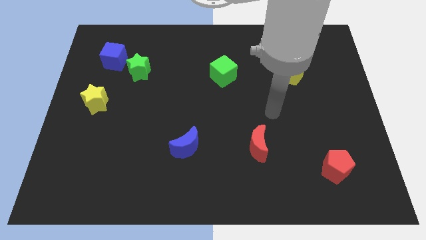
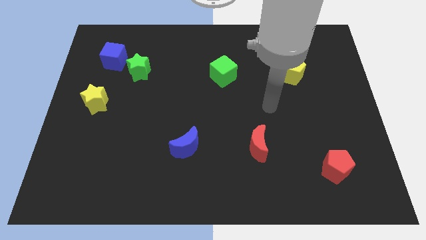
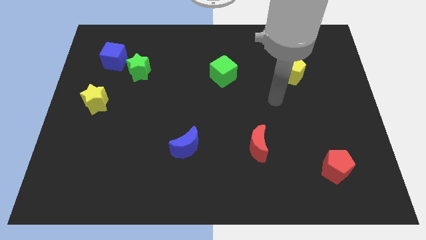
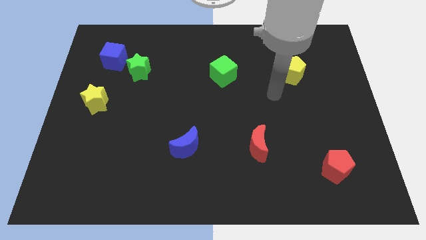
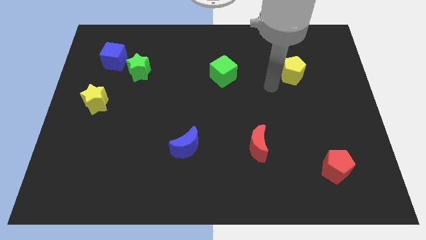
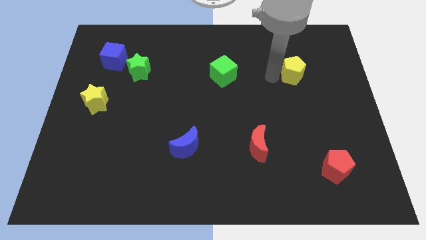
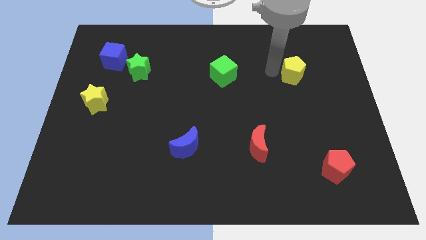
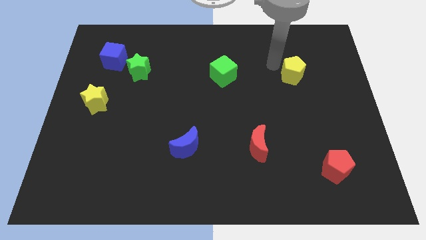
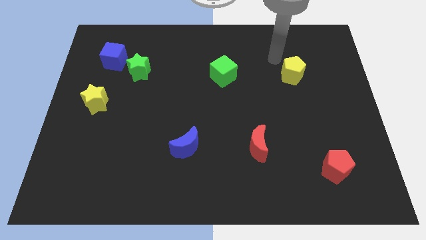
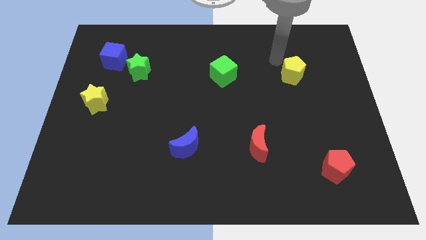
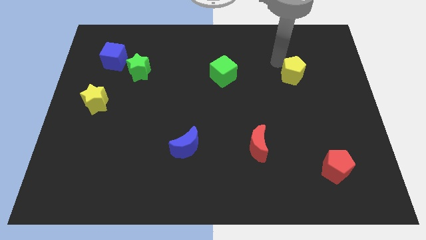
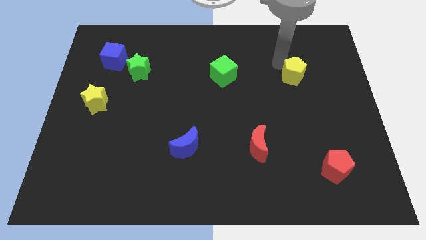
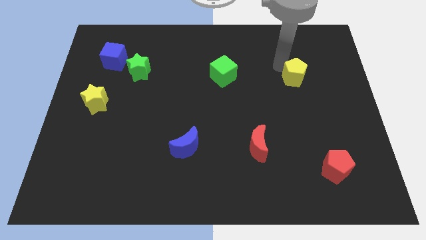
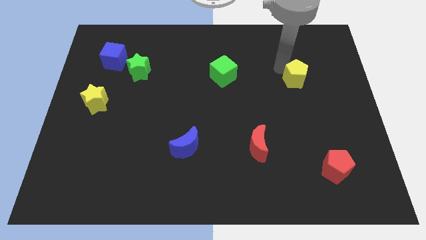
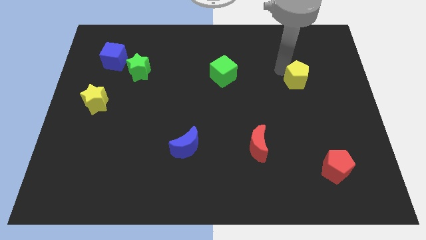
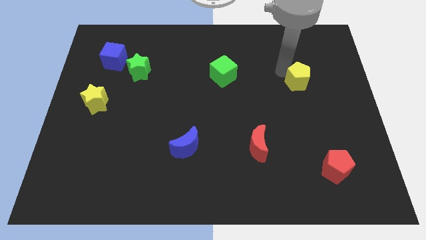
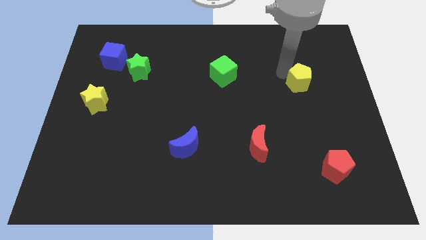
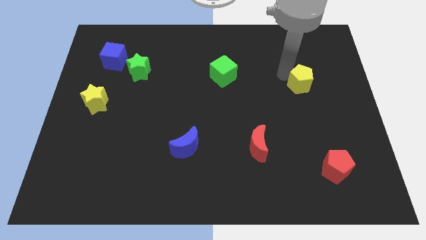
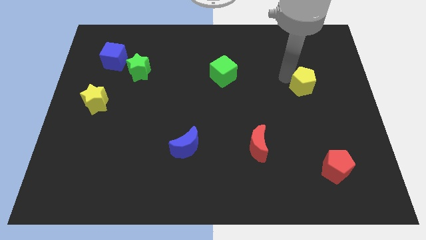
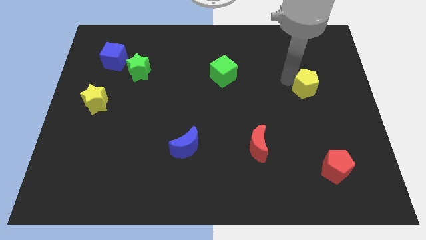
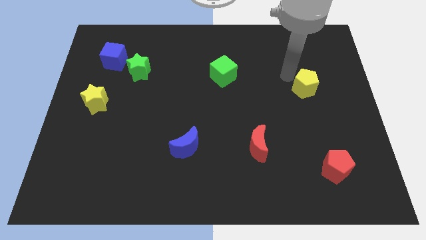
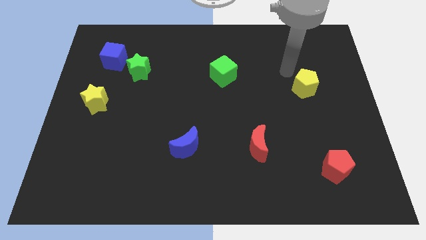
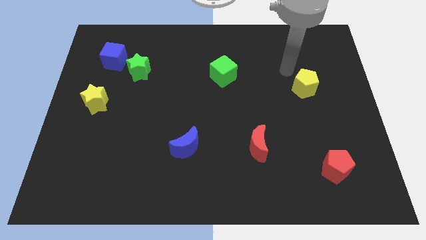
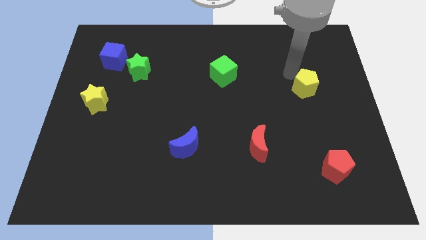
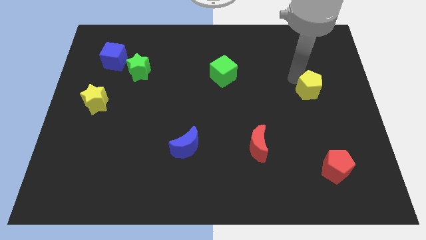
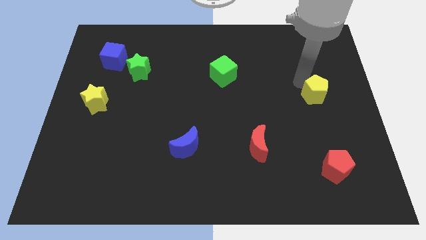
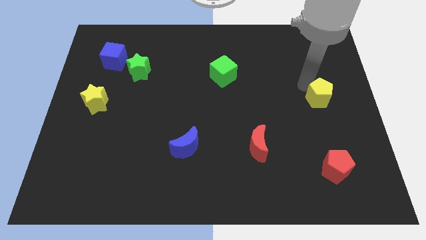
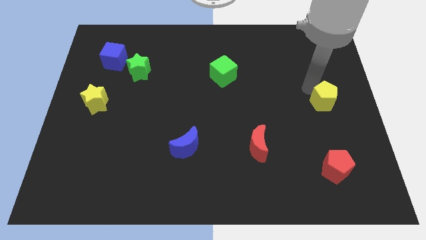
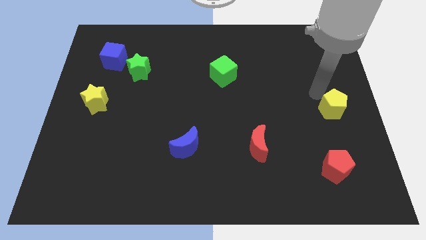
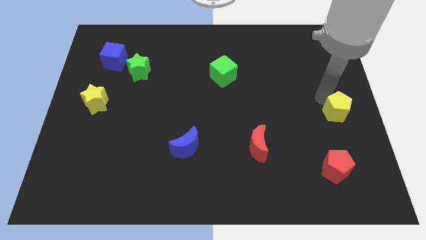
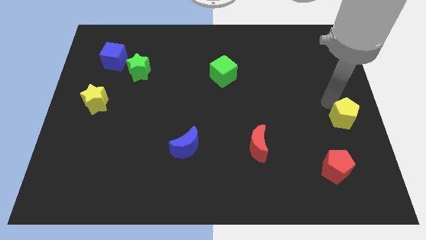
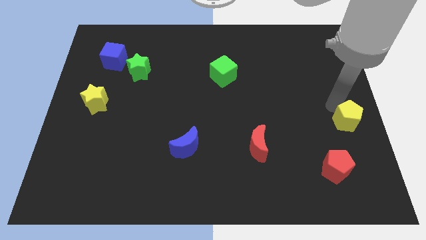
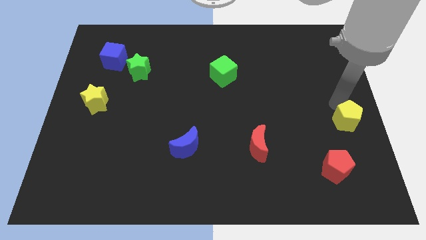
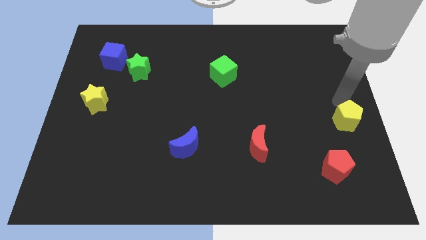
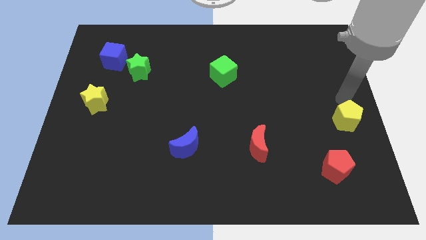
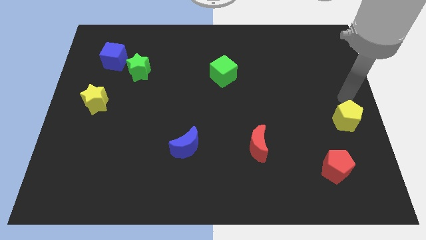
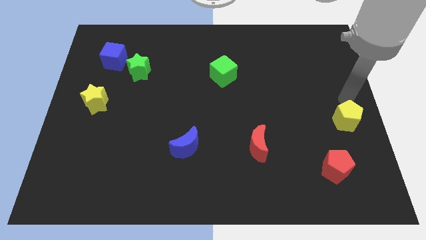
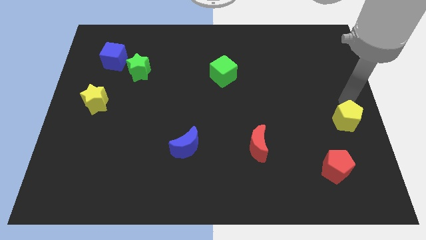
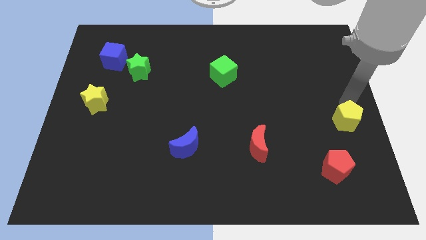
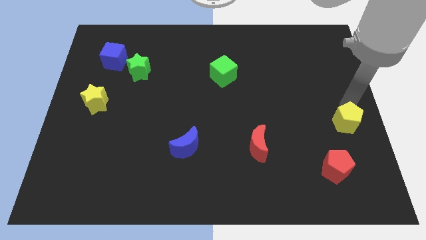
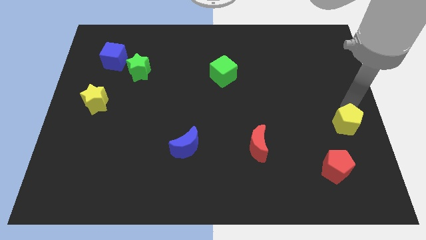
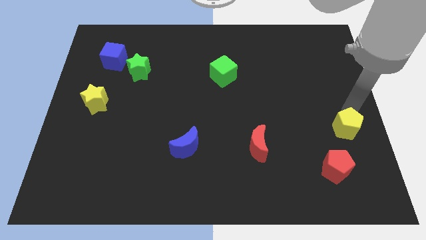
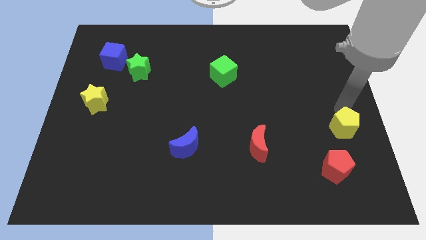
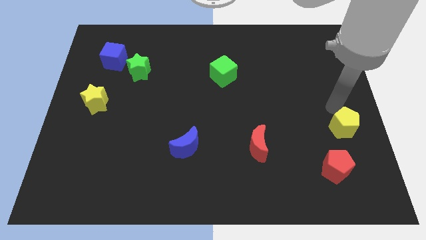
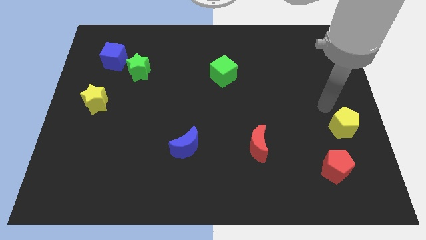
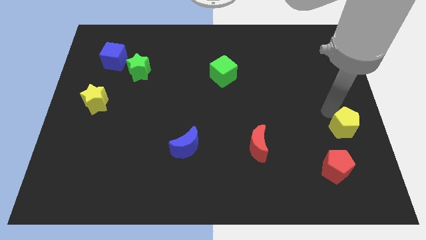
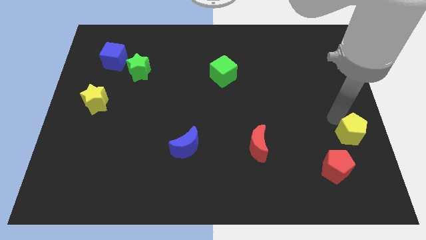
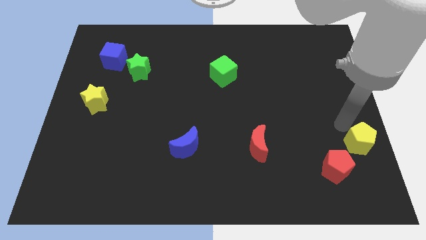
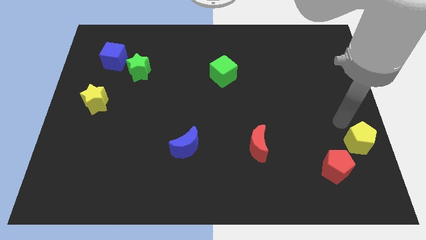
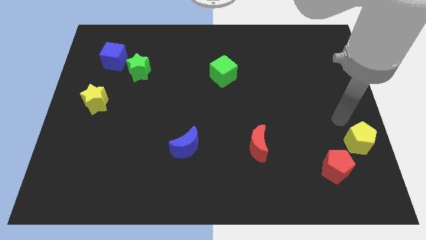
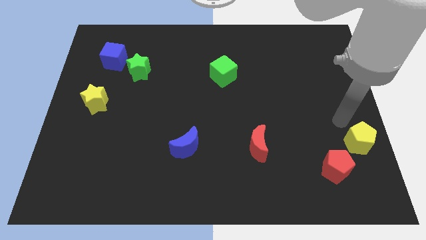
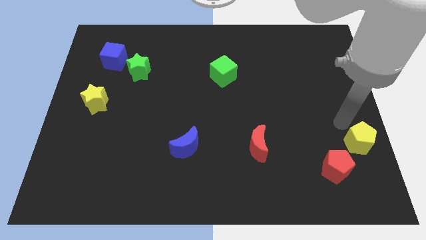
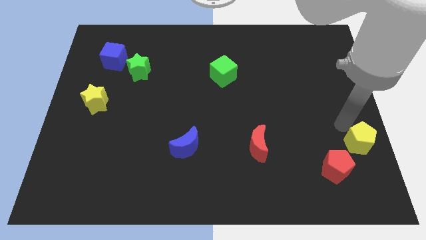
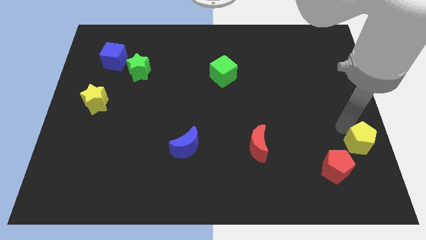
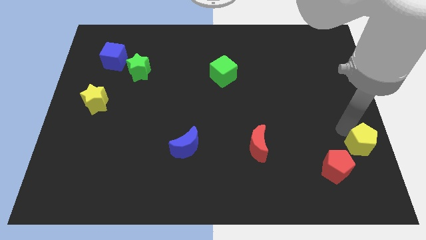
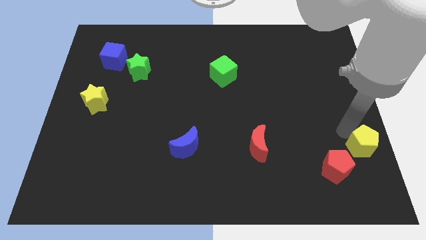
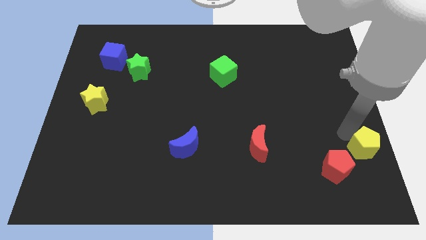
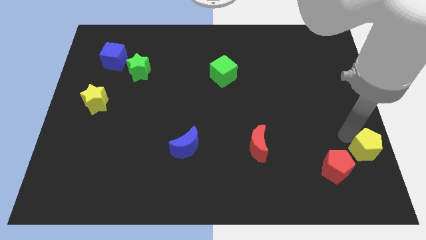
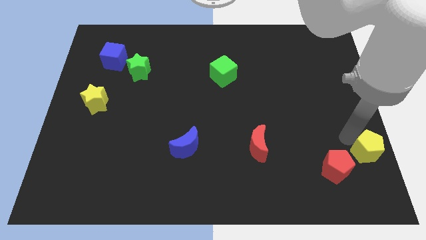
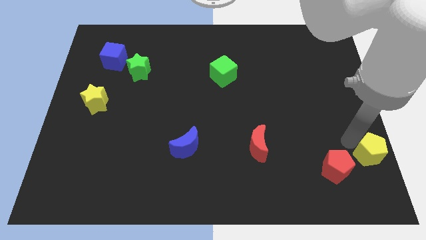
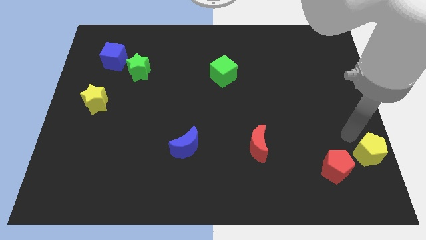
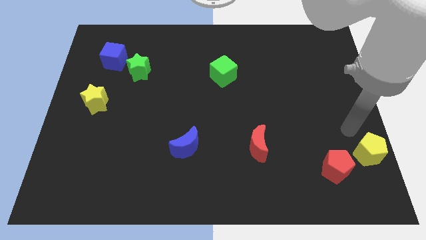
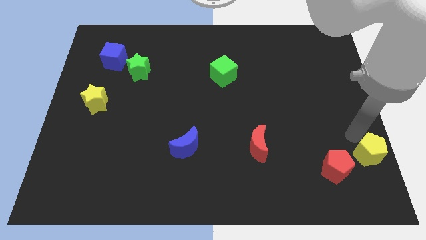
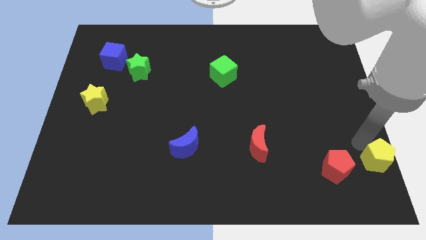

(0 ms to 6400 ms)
push the yellow pentagon to the bottom right corner

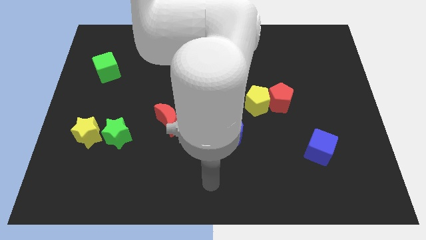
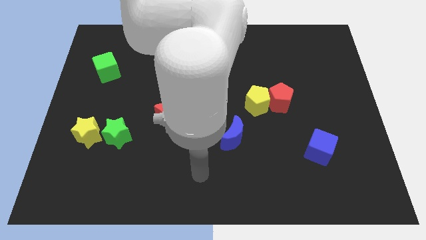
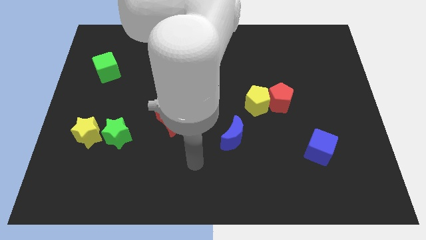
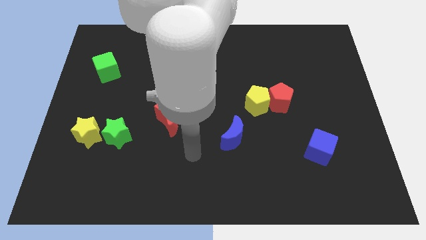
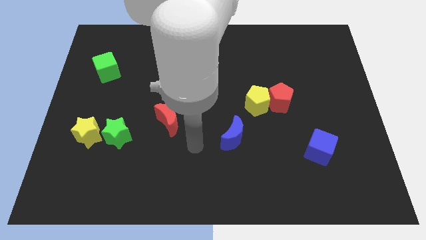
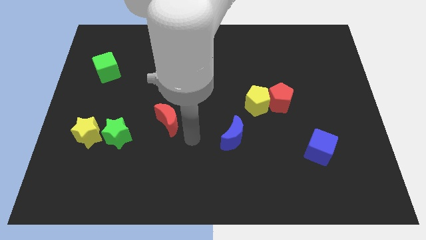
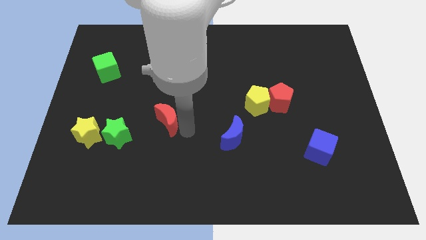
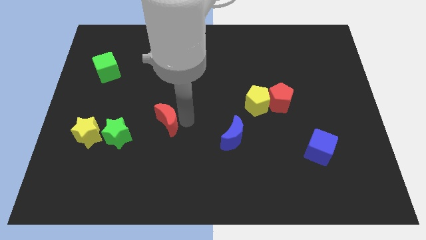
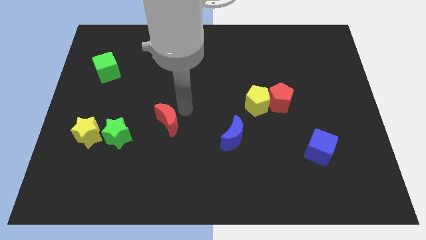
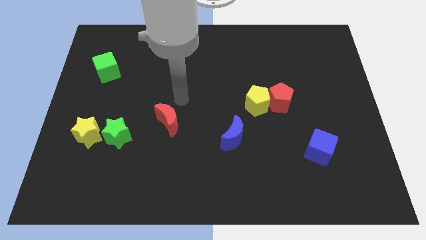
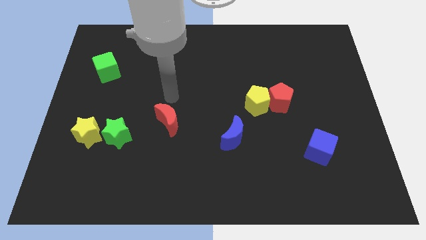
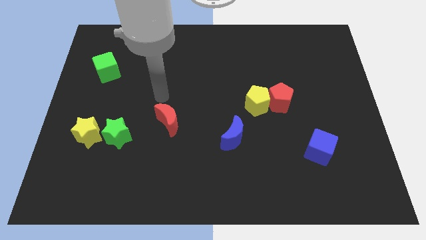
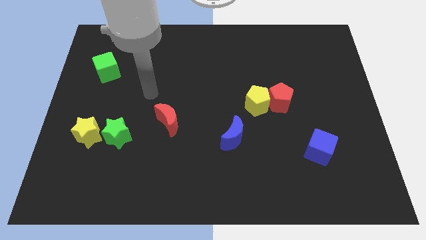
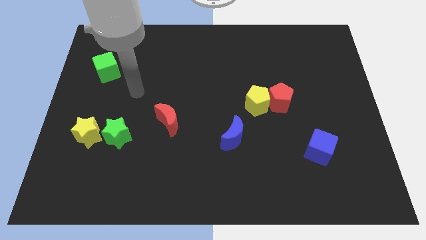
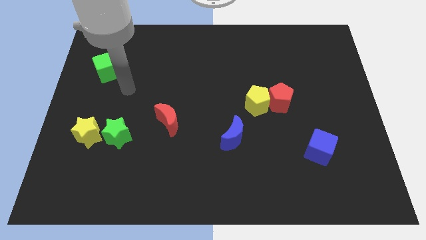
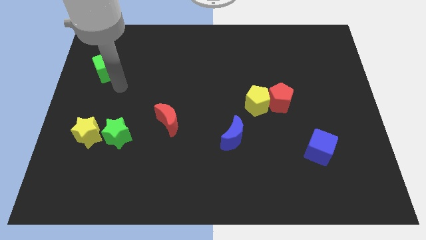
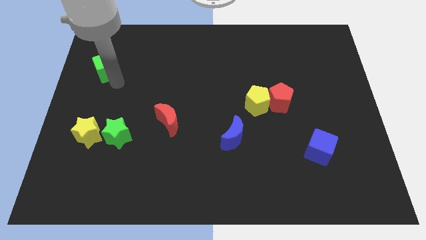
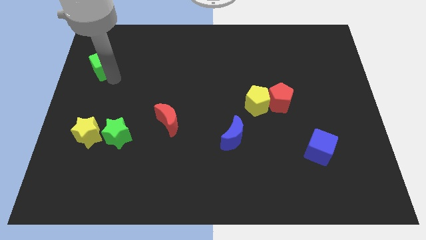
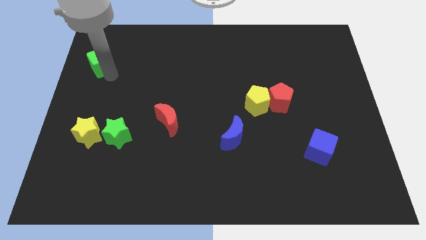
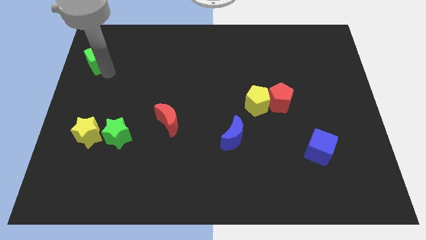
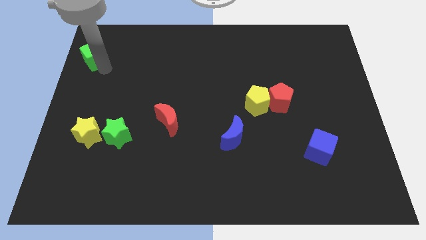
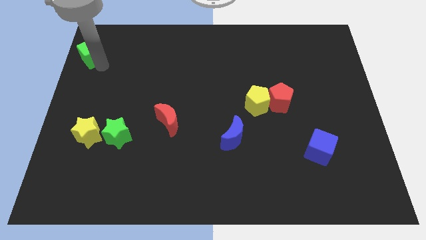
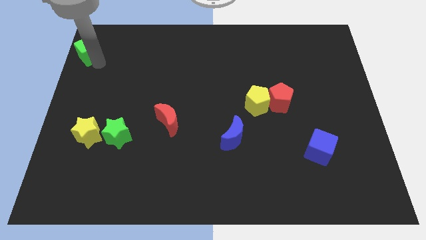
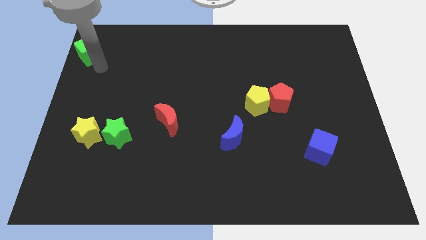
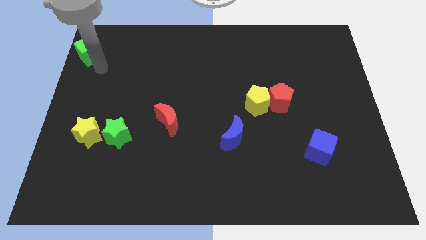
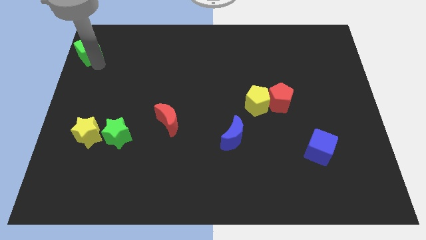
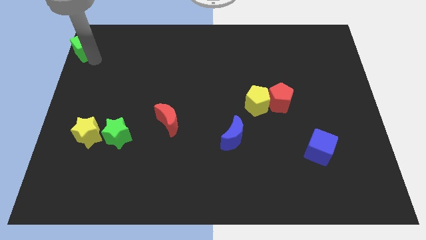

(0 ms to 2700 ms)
put the green cube to the top left of the board
